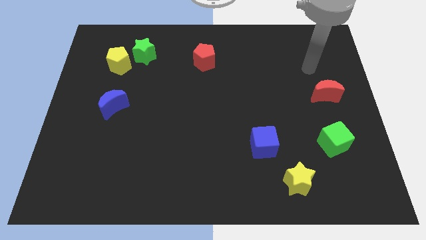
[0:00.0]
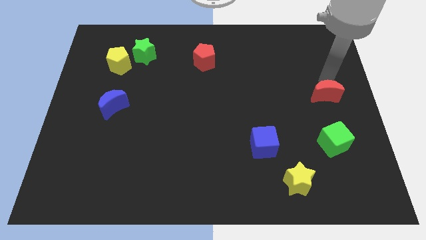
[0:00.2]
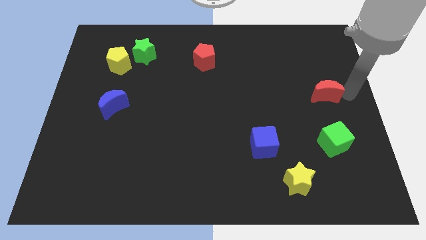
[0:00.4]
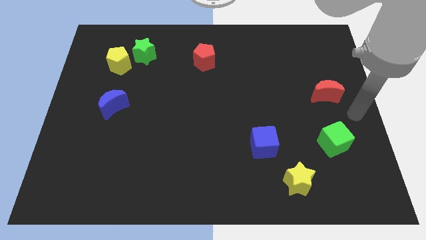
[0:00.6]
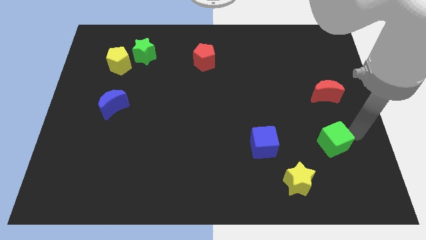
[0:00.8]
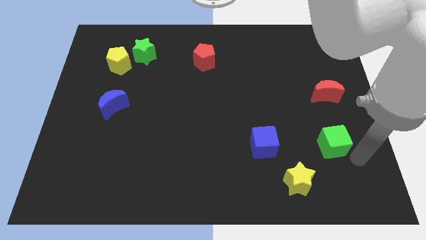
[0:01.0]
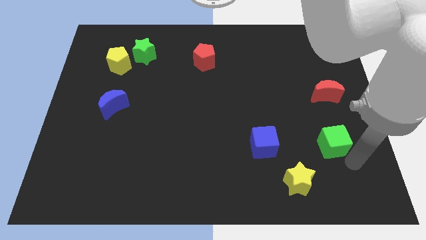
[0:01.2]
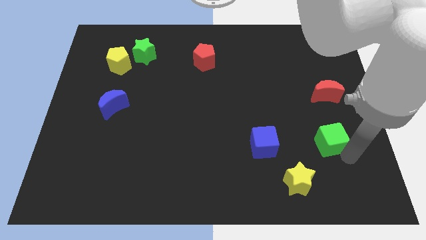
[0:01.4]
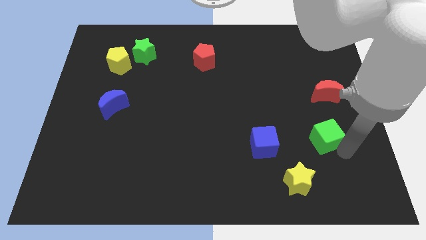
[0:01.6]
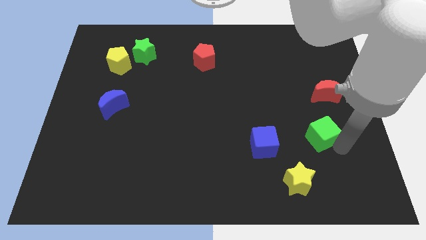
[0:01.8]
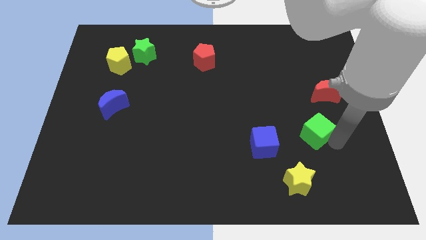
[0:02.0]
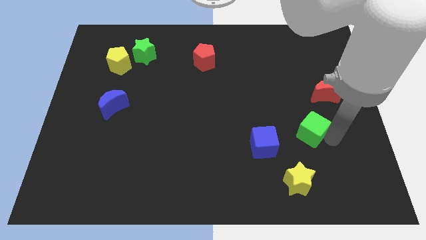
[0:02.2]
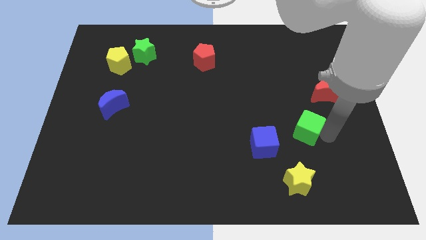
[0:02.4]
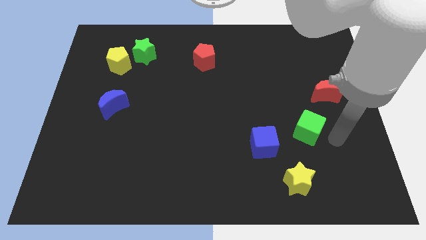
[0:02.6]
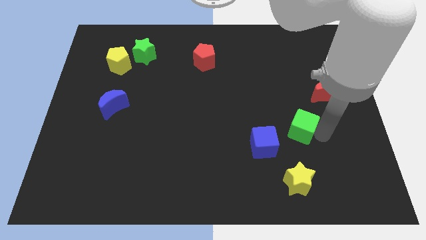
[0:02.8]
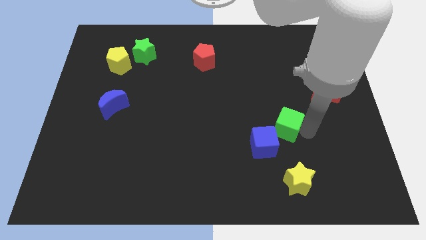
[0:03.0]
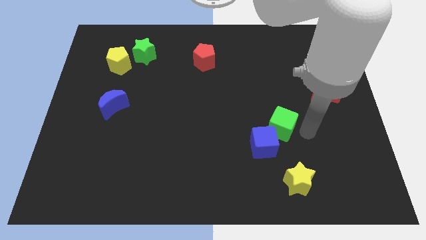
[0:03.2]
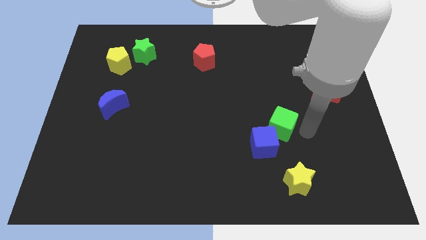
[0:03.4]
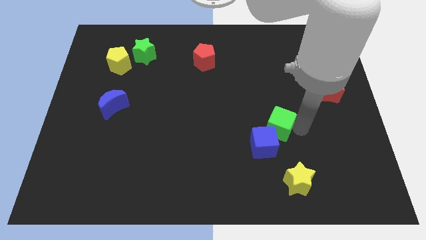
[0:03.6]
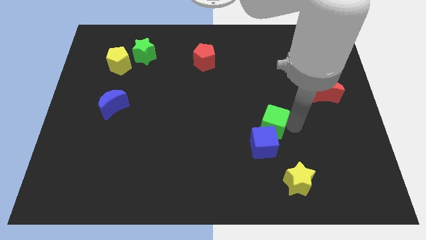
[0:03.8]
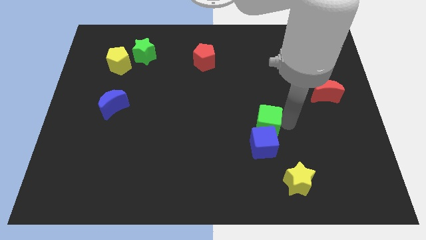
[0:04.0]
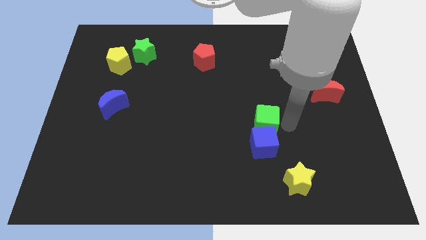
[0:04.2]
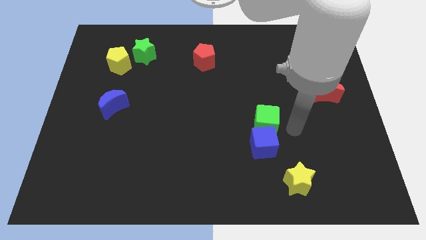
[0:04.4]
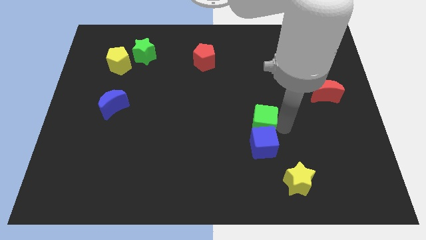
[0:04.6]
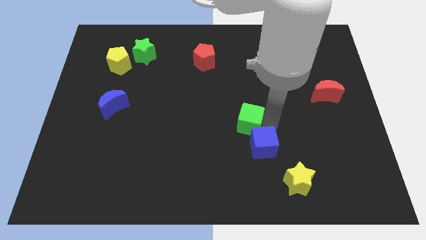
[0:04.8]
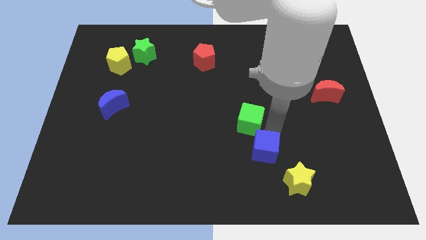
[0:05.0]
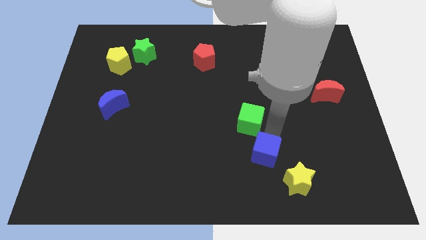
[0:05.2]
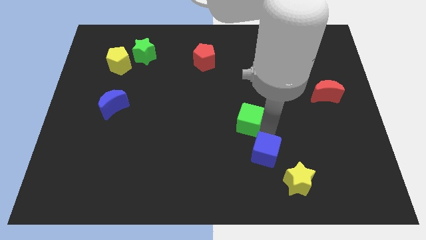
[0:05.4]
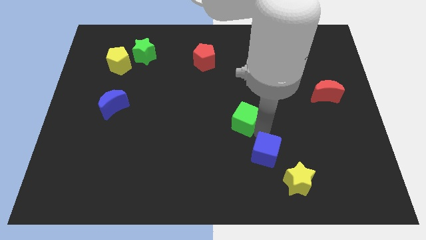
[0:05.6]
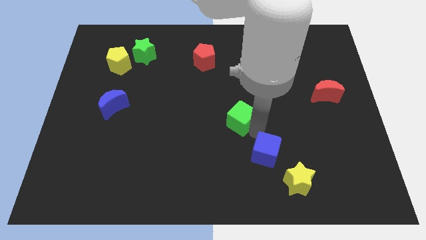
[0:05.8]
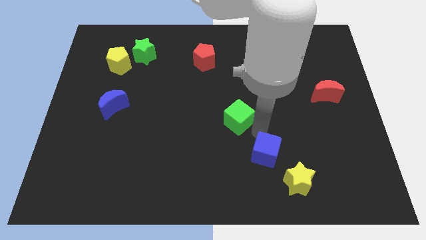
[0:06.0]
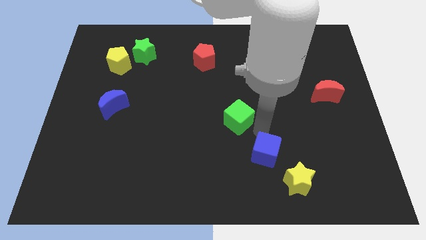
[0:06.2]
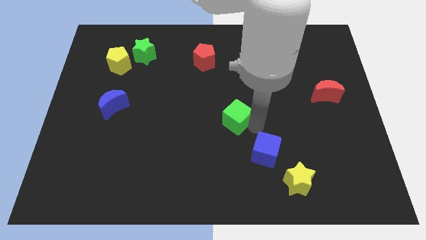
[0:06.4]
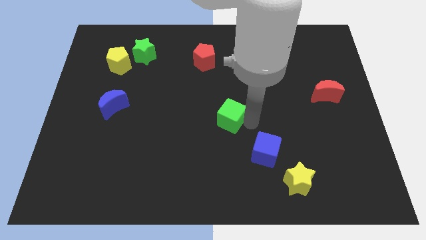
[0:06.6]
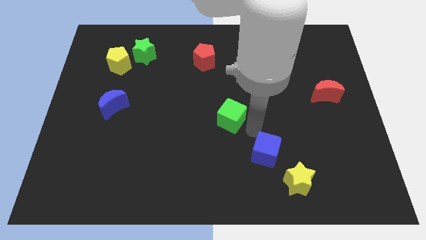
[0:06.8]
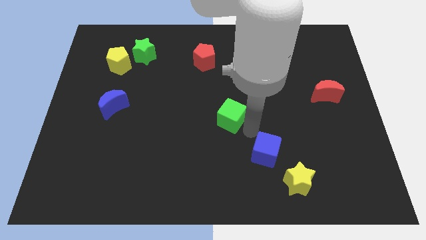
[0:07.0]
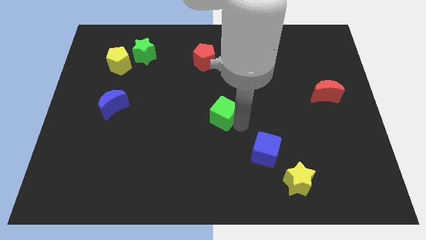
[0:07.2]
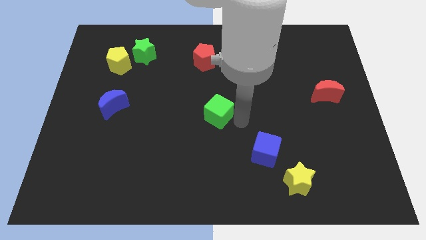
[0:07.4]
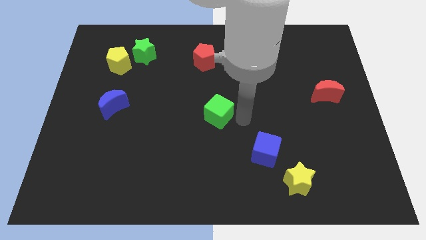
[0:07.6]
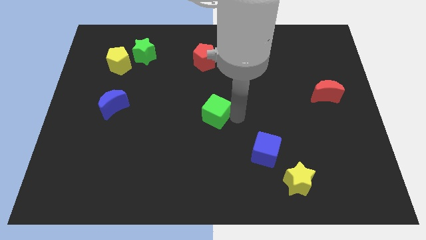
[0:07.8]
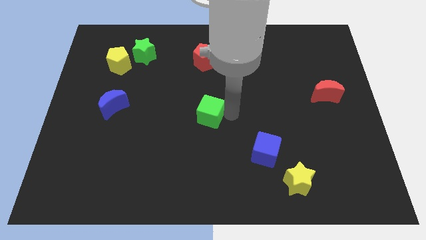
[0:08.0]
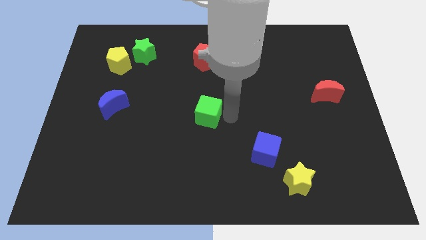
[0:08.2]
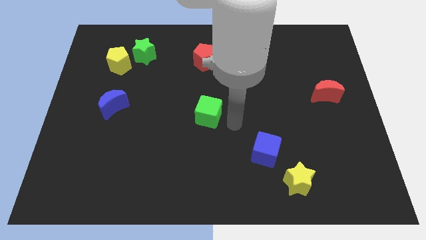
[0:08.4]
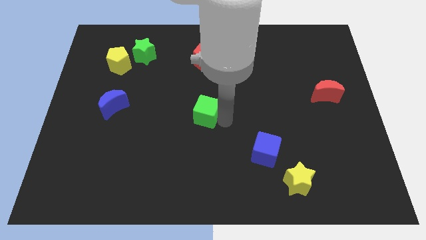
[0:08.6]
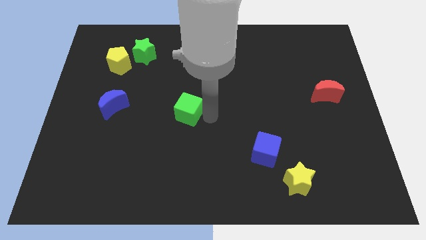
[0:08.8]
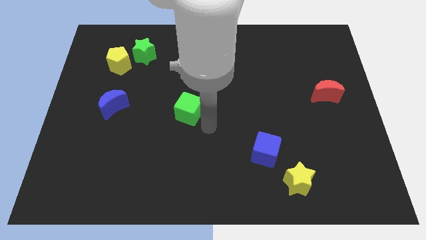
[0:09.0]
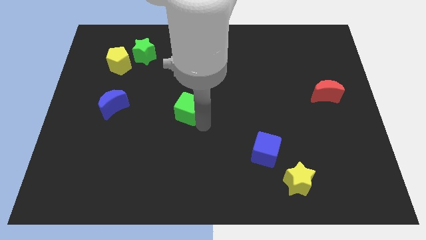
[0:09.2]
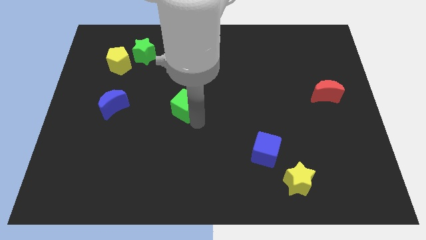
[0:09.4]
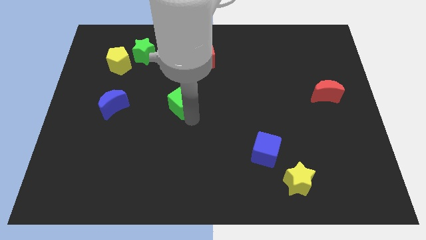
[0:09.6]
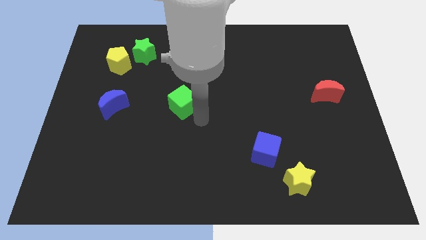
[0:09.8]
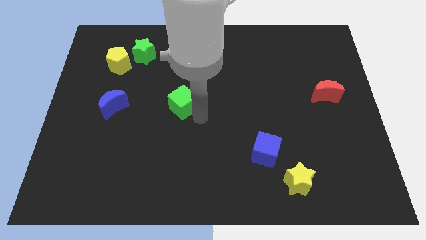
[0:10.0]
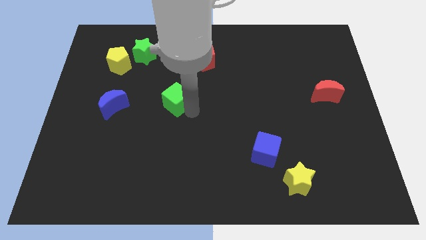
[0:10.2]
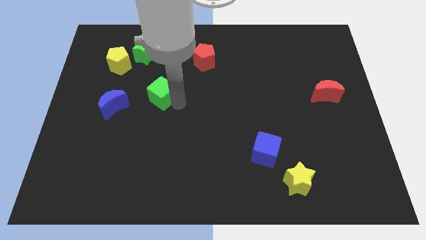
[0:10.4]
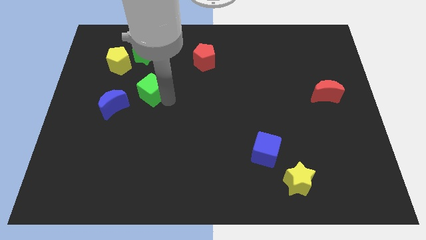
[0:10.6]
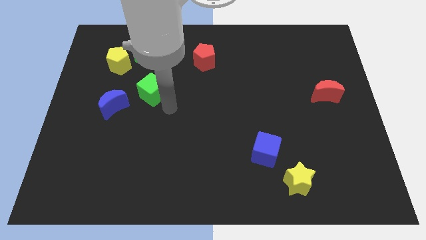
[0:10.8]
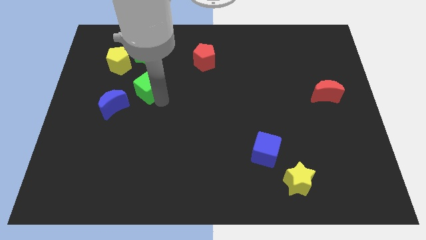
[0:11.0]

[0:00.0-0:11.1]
slide the green cube to the bottom right side of the yellow pentagon

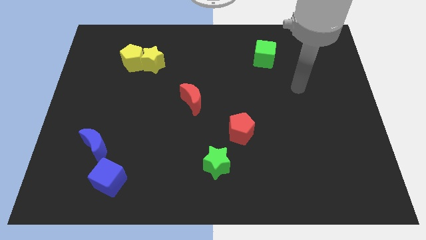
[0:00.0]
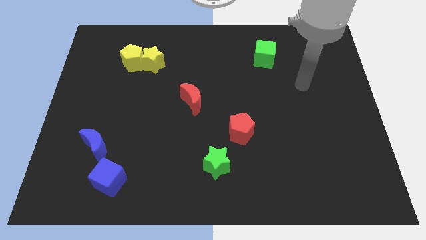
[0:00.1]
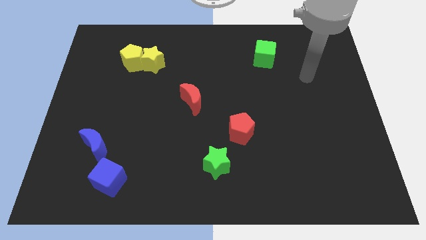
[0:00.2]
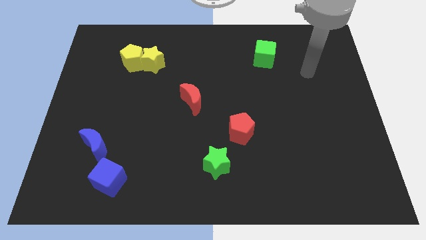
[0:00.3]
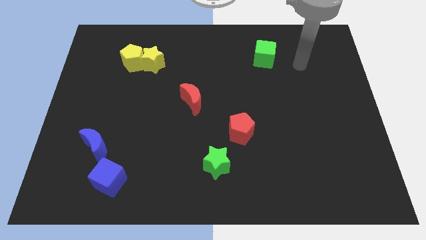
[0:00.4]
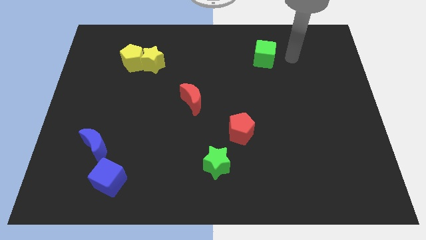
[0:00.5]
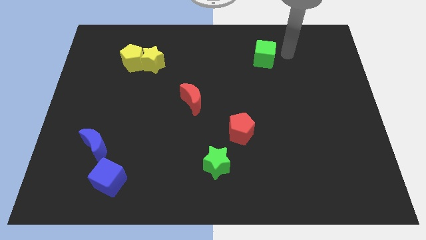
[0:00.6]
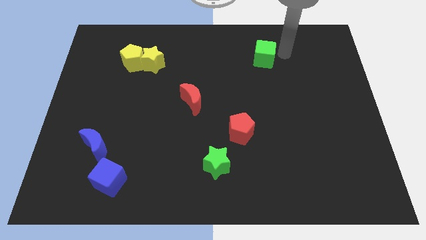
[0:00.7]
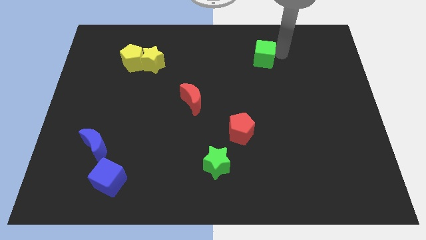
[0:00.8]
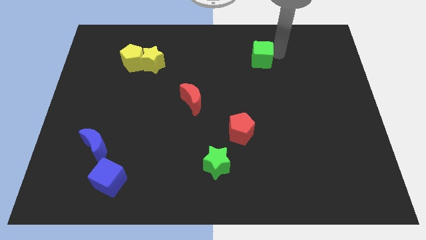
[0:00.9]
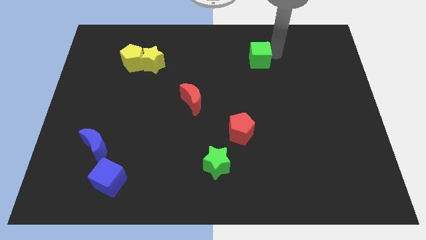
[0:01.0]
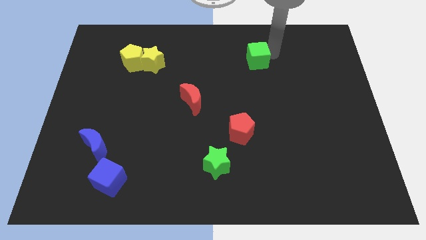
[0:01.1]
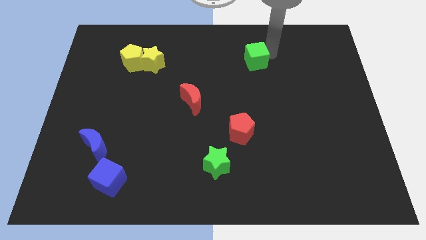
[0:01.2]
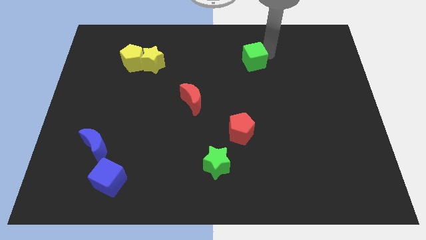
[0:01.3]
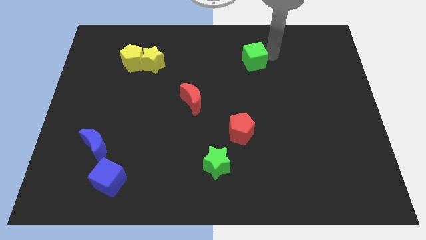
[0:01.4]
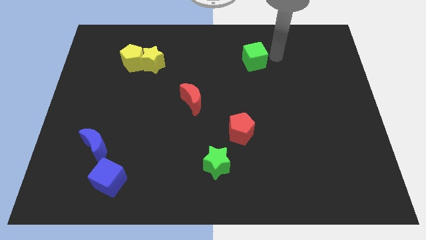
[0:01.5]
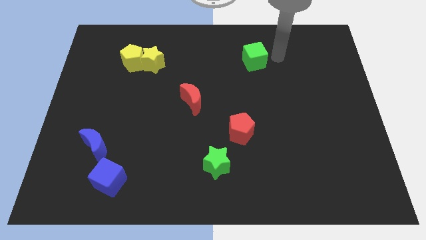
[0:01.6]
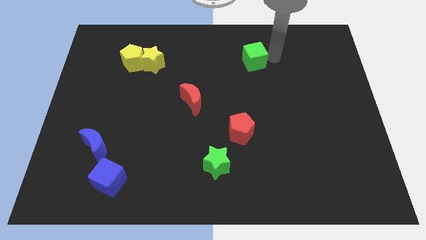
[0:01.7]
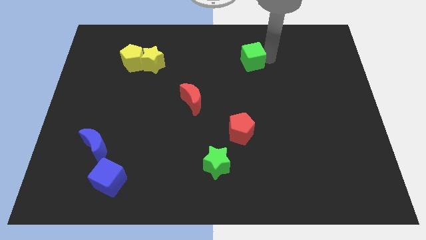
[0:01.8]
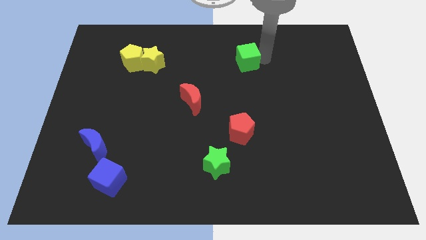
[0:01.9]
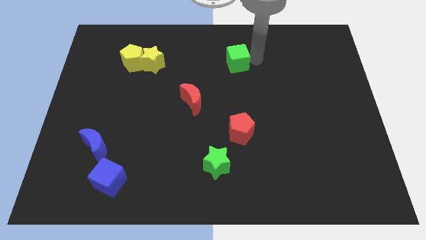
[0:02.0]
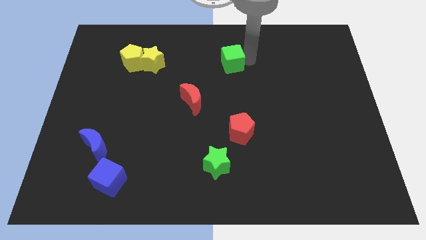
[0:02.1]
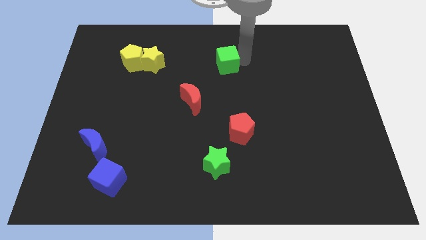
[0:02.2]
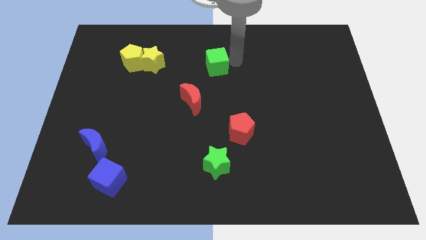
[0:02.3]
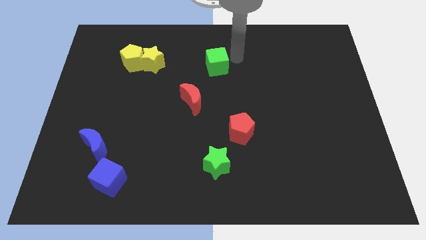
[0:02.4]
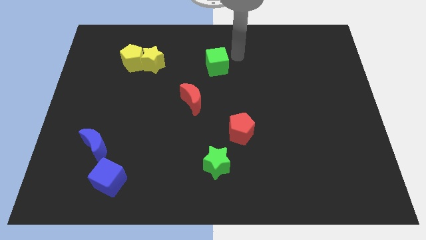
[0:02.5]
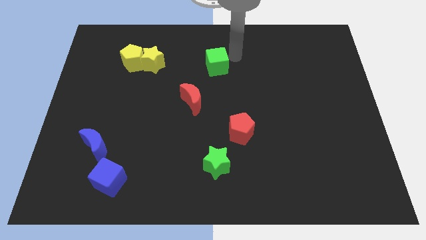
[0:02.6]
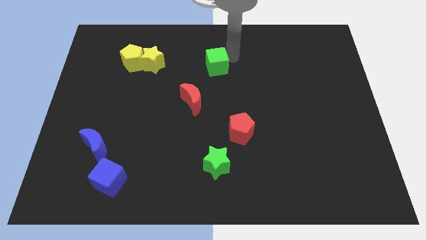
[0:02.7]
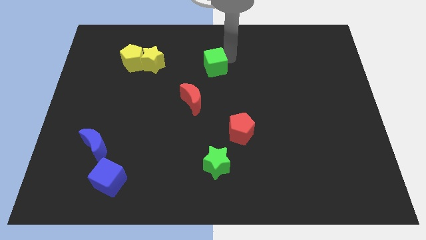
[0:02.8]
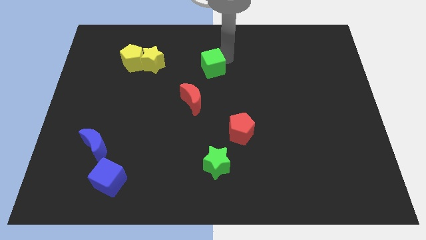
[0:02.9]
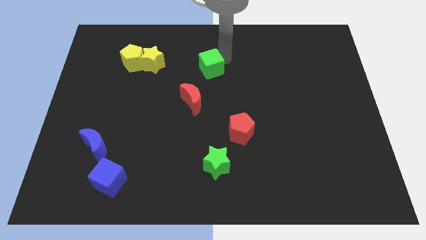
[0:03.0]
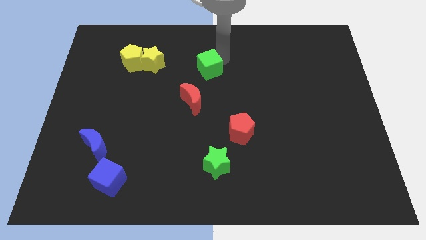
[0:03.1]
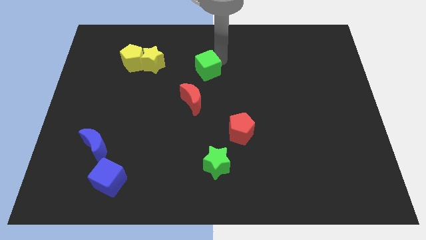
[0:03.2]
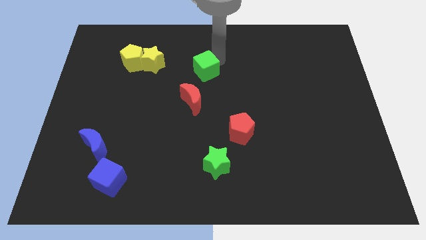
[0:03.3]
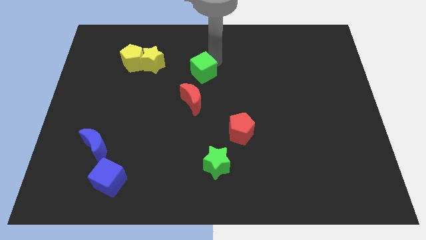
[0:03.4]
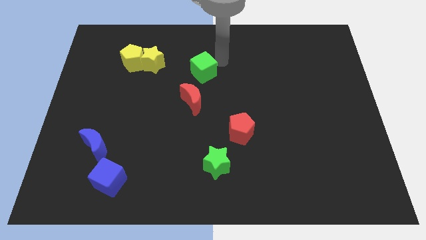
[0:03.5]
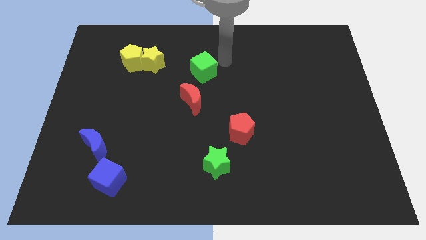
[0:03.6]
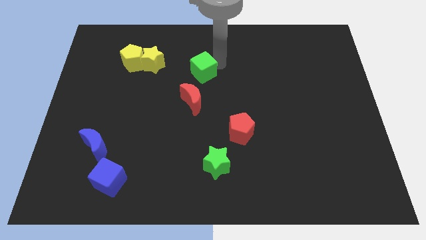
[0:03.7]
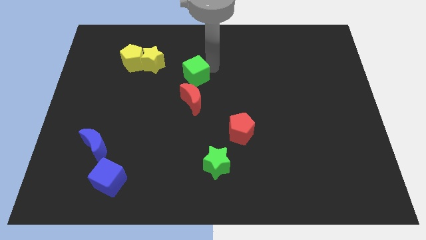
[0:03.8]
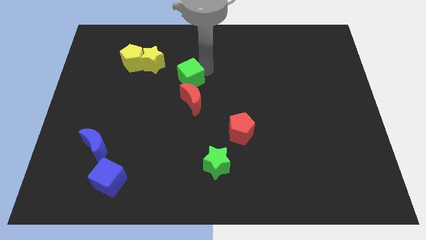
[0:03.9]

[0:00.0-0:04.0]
slide the green cube to the top left side of the red moon
